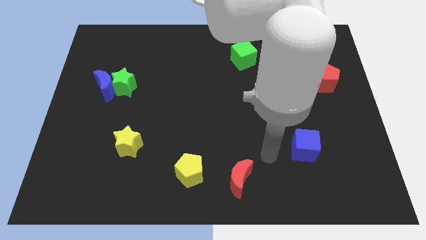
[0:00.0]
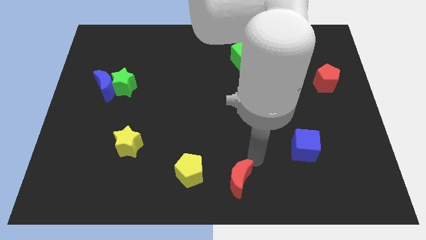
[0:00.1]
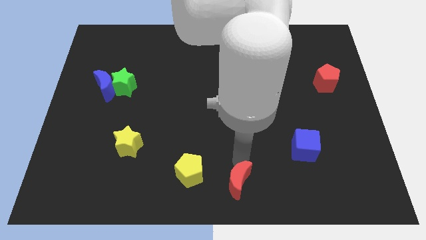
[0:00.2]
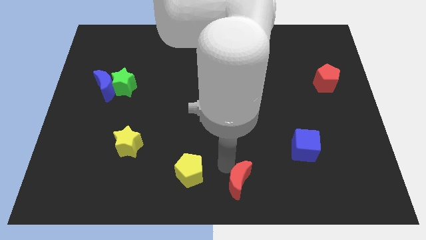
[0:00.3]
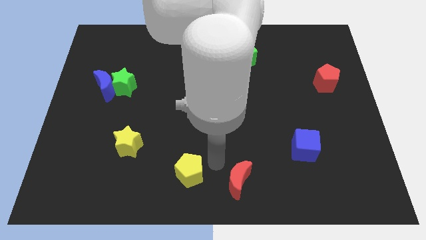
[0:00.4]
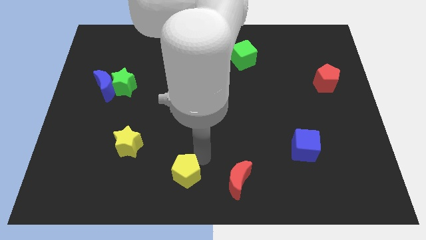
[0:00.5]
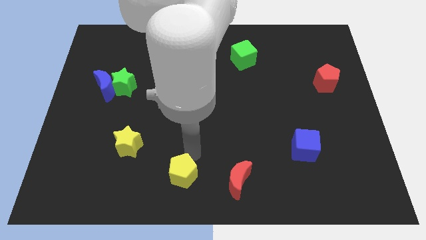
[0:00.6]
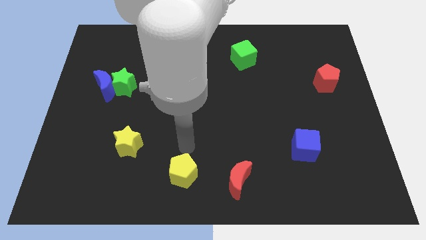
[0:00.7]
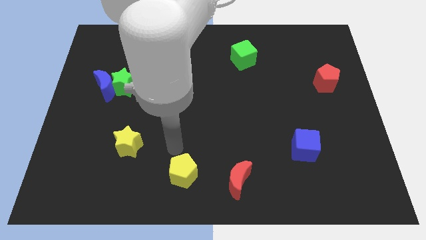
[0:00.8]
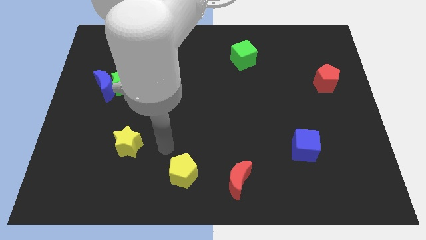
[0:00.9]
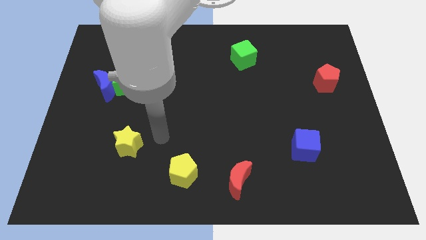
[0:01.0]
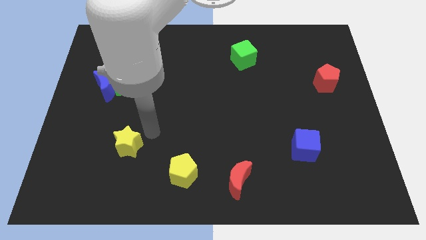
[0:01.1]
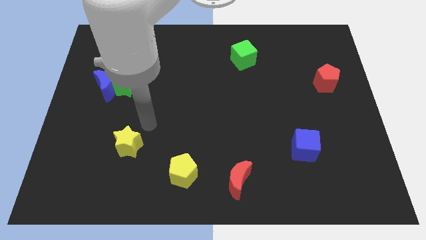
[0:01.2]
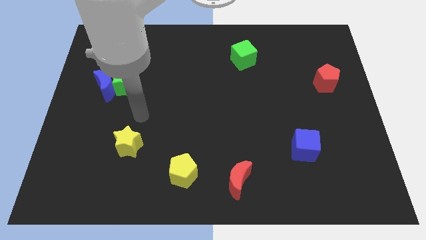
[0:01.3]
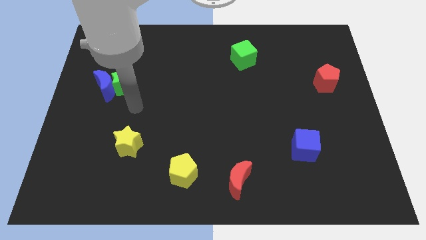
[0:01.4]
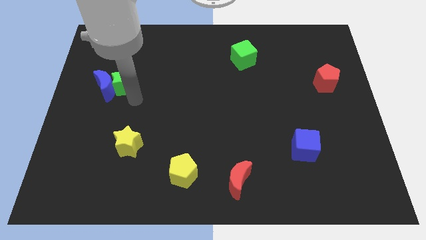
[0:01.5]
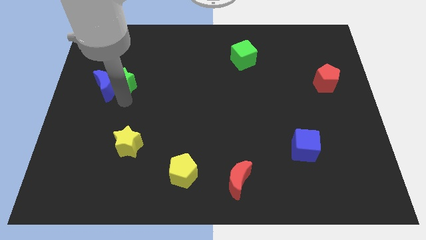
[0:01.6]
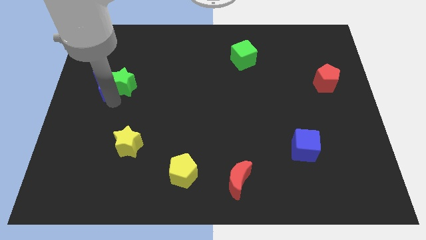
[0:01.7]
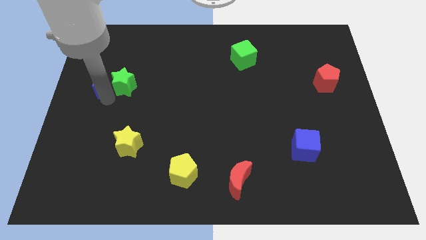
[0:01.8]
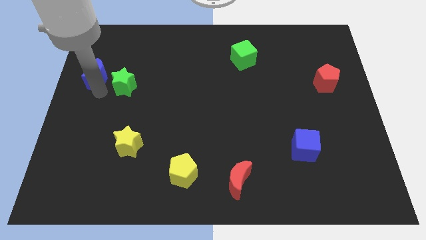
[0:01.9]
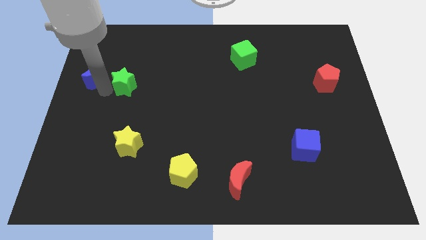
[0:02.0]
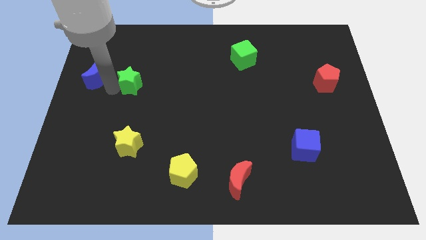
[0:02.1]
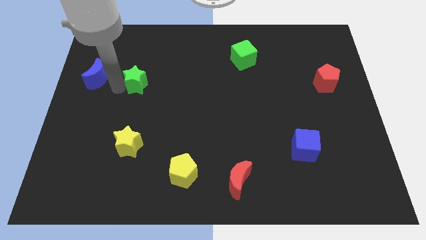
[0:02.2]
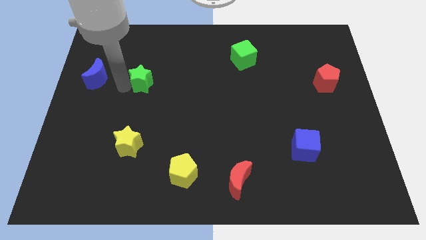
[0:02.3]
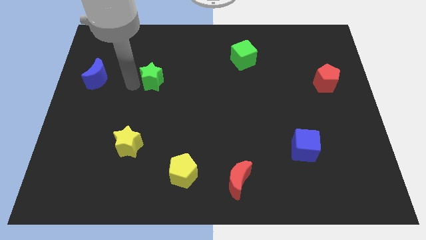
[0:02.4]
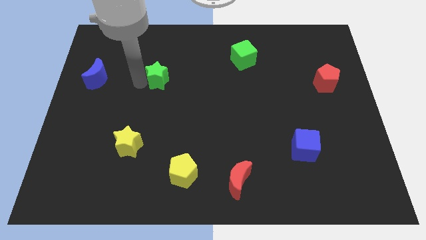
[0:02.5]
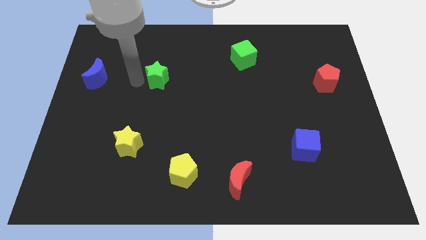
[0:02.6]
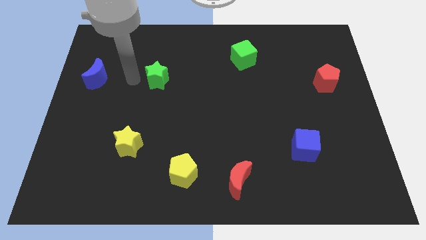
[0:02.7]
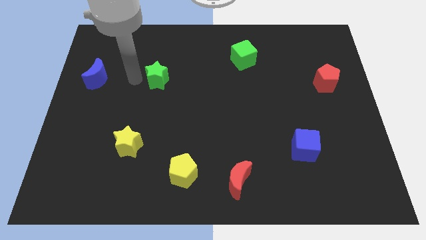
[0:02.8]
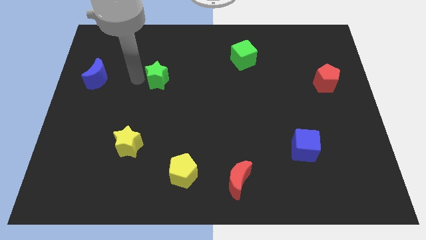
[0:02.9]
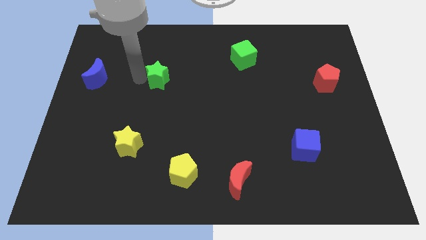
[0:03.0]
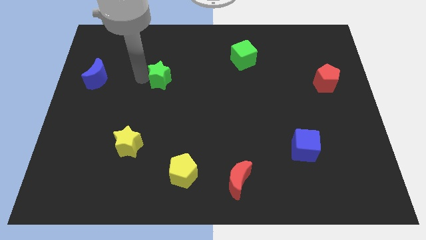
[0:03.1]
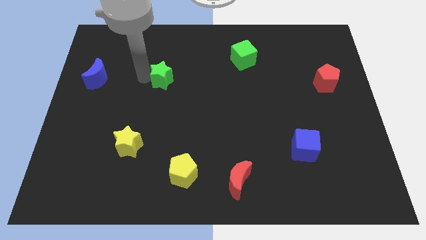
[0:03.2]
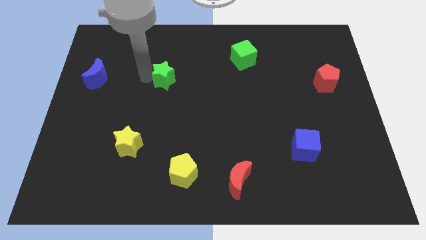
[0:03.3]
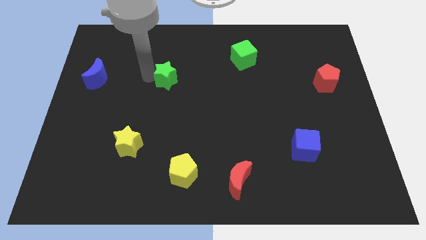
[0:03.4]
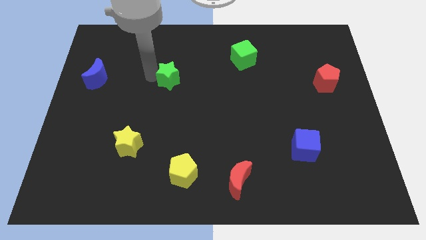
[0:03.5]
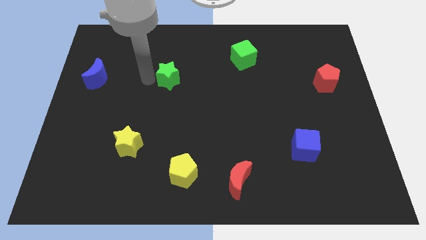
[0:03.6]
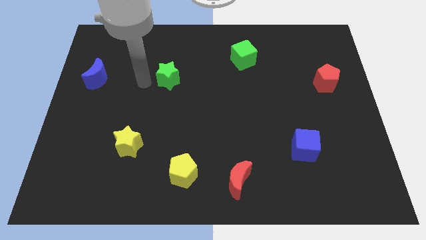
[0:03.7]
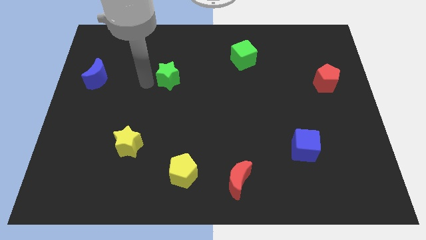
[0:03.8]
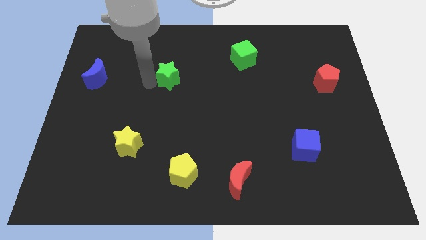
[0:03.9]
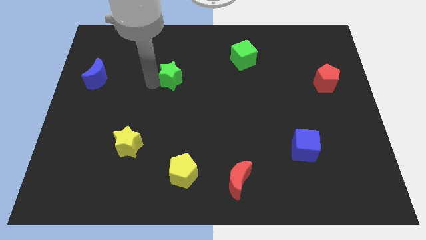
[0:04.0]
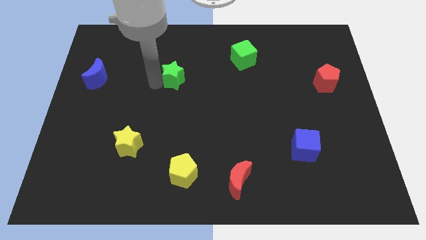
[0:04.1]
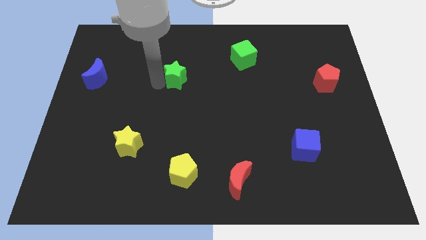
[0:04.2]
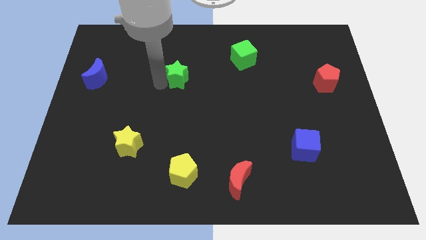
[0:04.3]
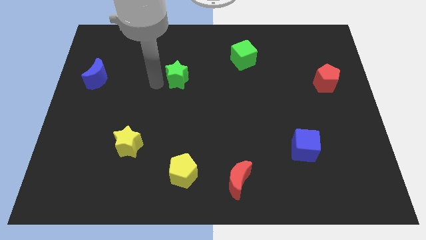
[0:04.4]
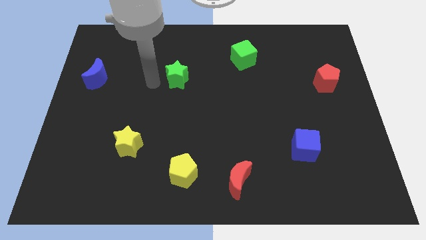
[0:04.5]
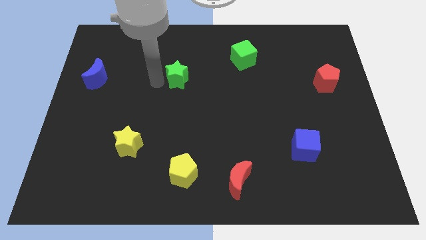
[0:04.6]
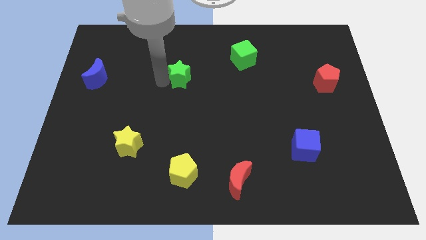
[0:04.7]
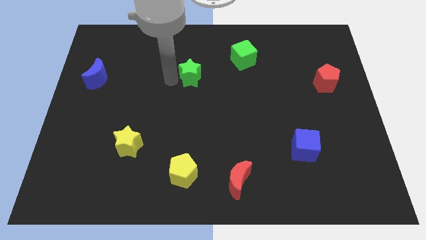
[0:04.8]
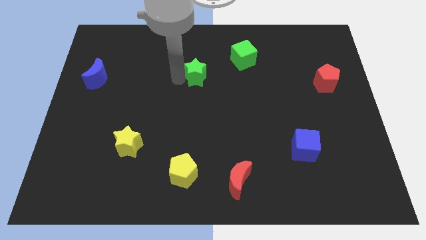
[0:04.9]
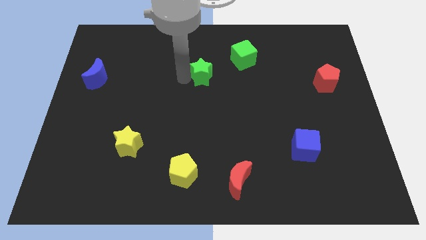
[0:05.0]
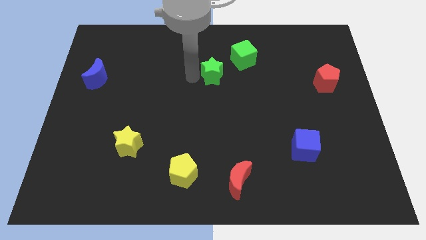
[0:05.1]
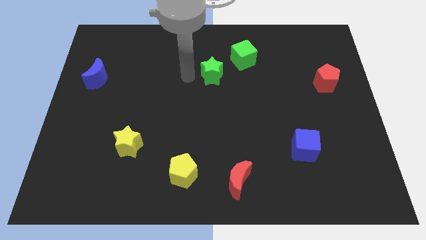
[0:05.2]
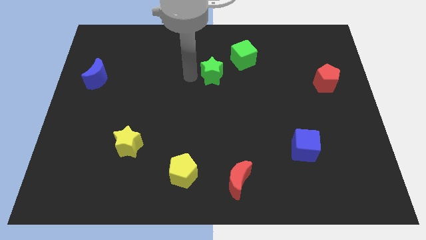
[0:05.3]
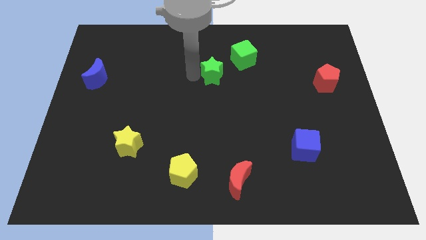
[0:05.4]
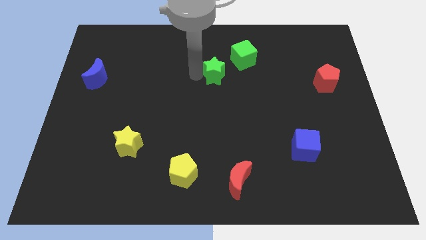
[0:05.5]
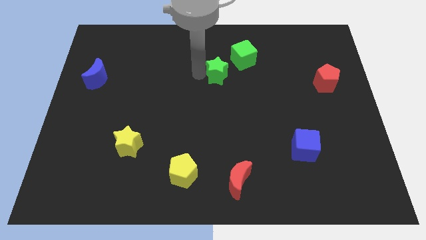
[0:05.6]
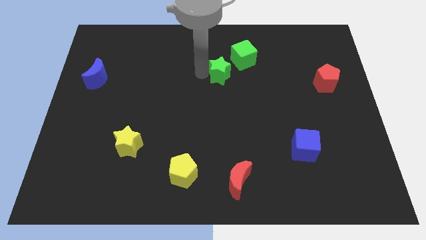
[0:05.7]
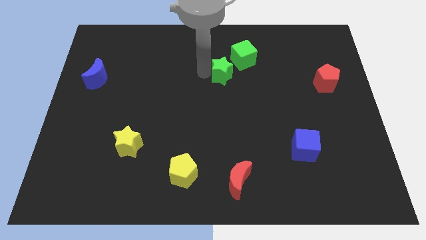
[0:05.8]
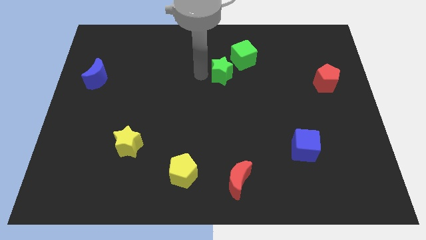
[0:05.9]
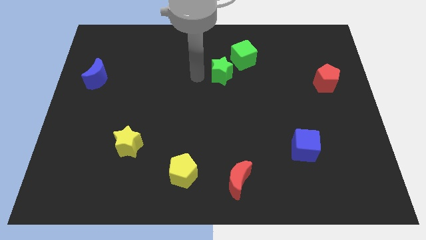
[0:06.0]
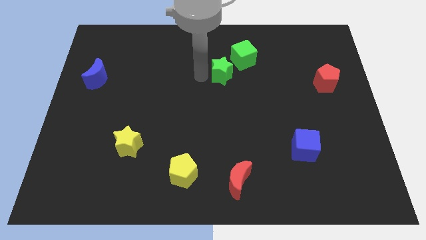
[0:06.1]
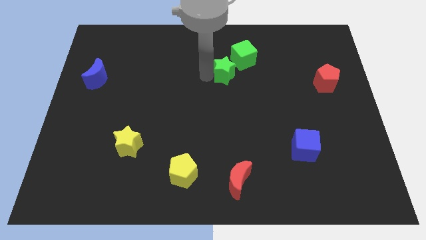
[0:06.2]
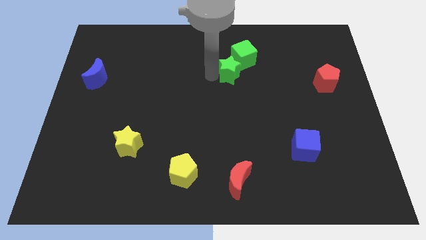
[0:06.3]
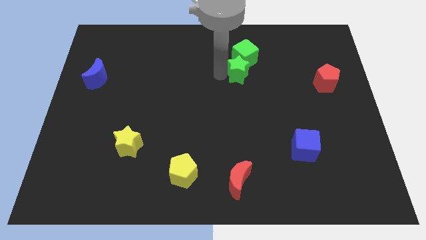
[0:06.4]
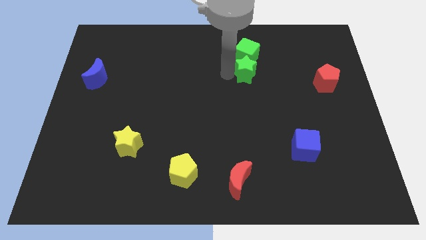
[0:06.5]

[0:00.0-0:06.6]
push the green star to the bottom right side of the green cube
